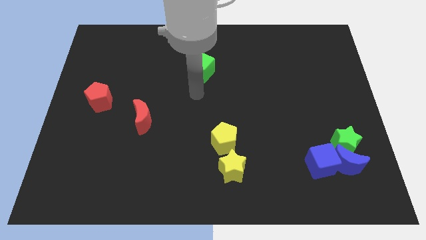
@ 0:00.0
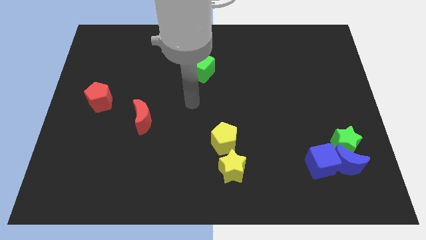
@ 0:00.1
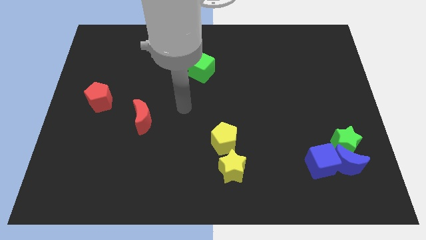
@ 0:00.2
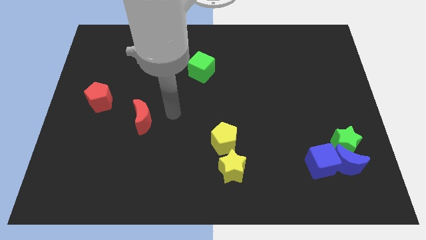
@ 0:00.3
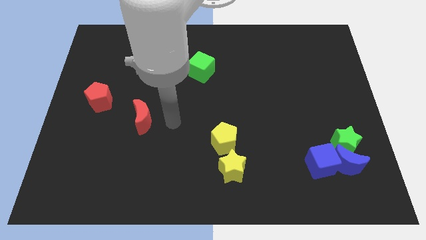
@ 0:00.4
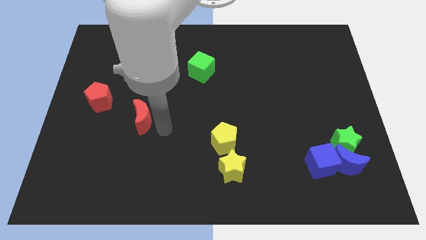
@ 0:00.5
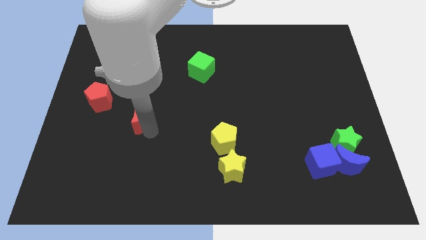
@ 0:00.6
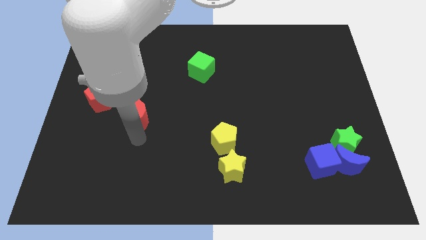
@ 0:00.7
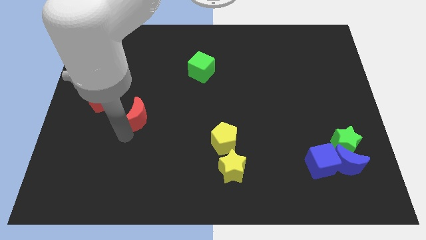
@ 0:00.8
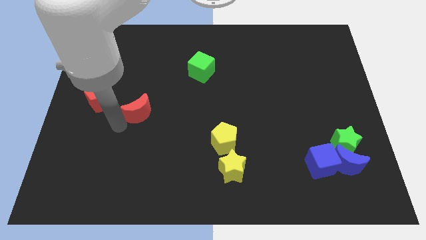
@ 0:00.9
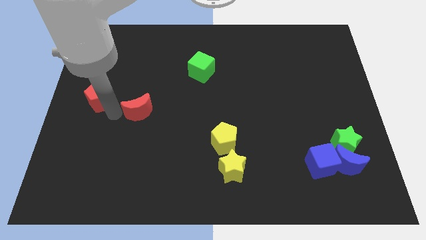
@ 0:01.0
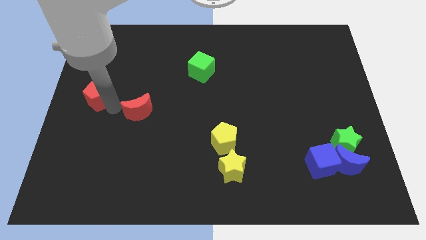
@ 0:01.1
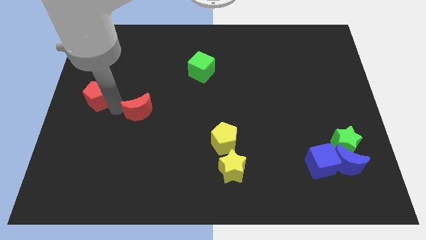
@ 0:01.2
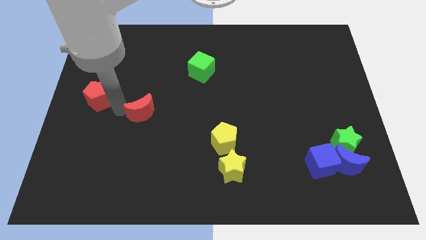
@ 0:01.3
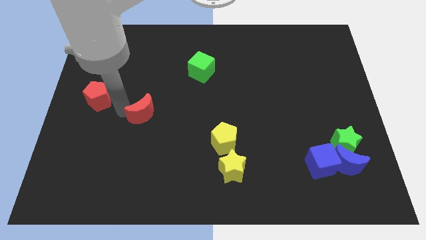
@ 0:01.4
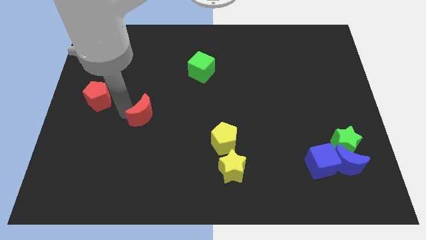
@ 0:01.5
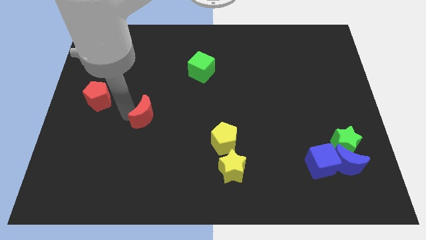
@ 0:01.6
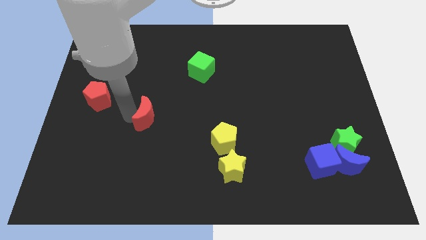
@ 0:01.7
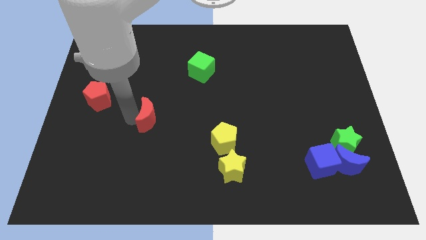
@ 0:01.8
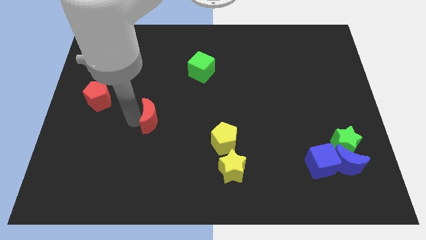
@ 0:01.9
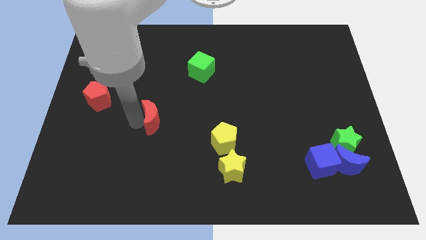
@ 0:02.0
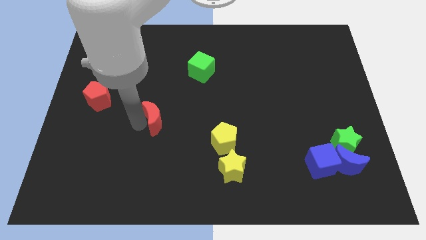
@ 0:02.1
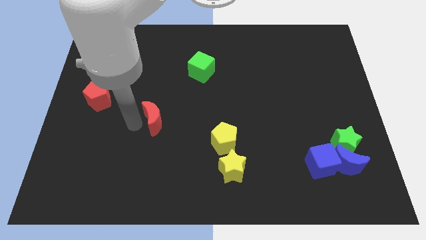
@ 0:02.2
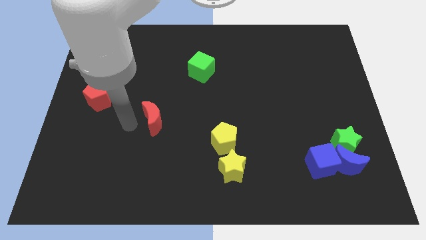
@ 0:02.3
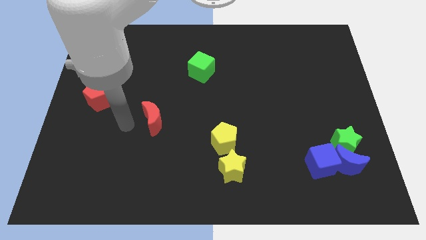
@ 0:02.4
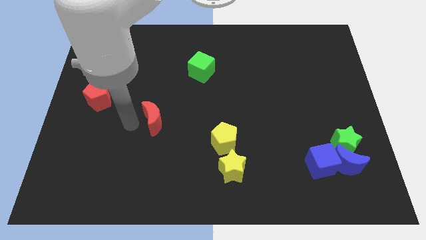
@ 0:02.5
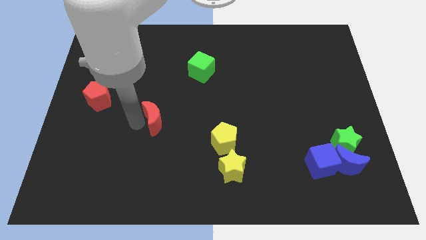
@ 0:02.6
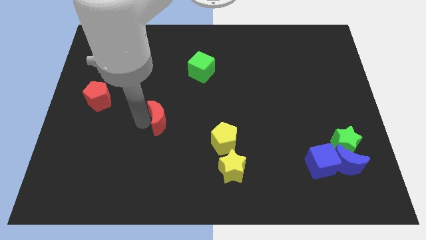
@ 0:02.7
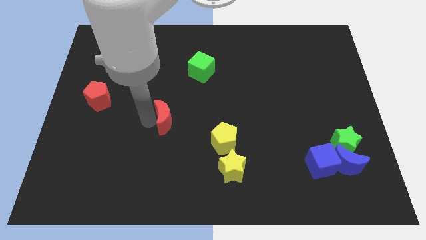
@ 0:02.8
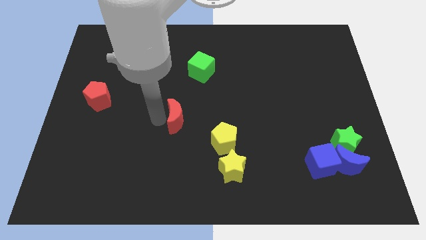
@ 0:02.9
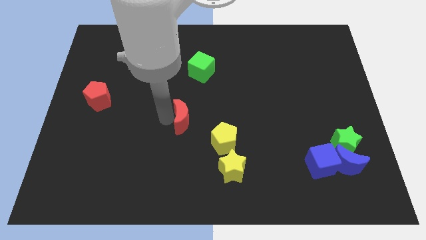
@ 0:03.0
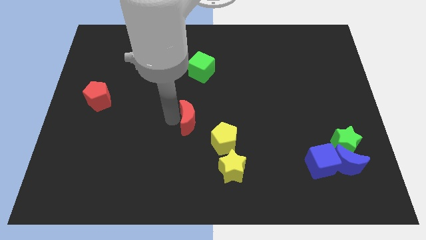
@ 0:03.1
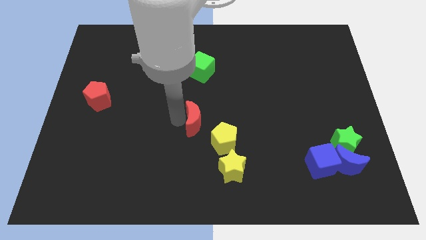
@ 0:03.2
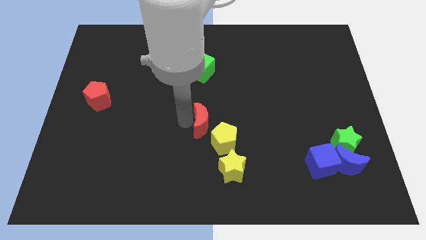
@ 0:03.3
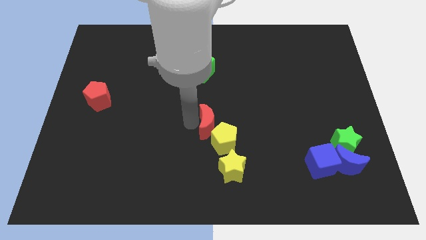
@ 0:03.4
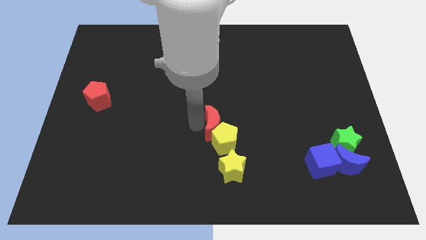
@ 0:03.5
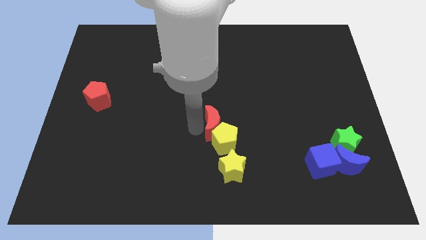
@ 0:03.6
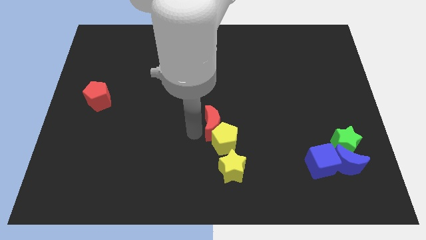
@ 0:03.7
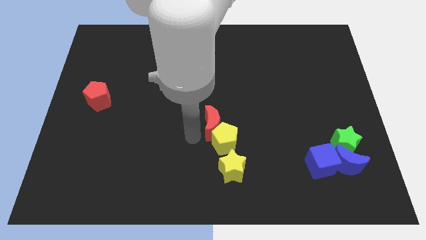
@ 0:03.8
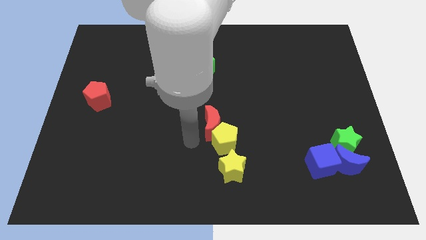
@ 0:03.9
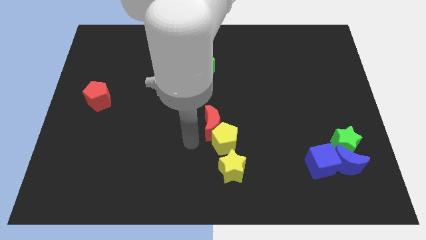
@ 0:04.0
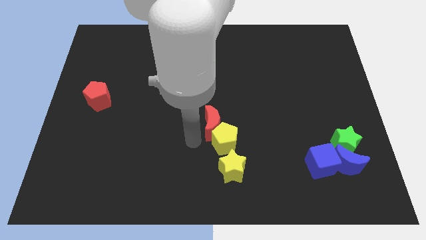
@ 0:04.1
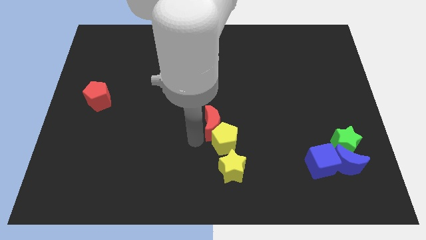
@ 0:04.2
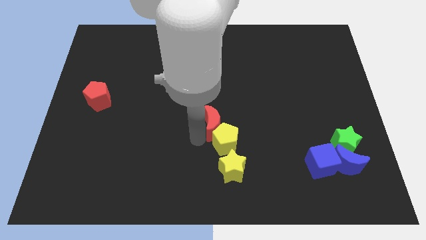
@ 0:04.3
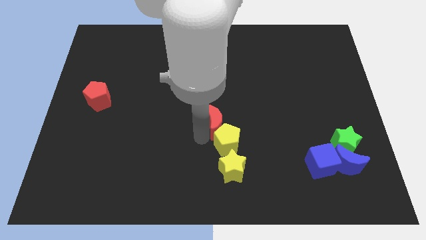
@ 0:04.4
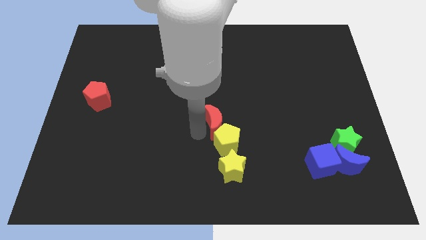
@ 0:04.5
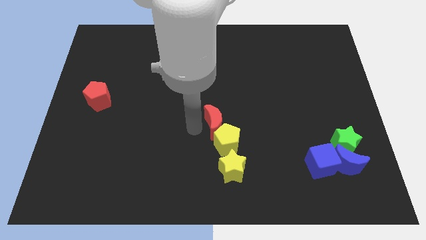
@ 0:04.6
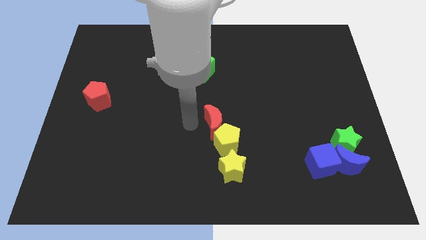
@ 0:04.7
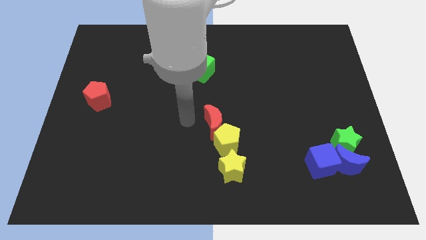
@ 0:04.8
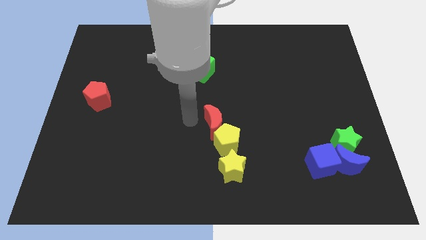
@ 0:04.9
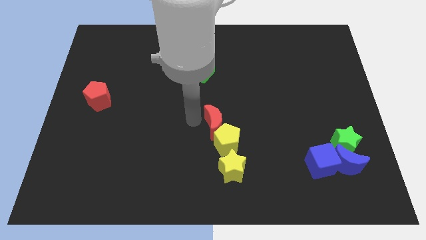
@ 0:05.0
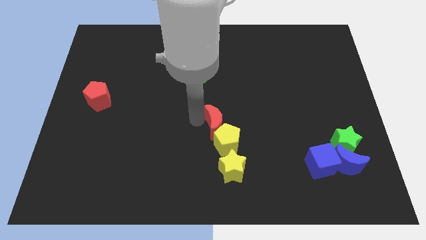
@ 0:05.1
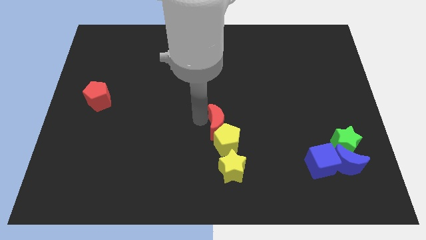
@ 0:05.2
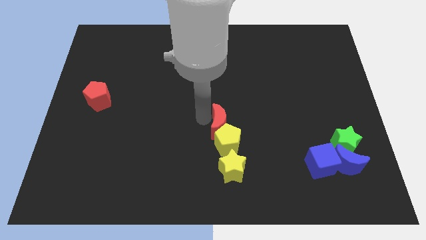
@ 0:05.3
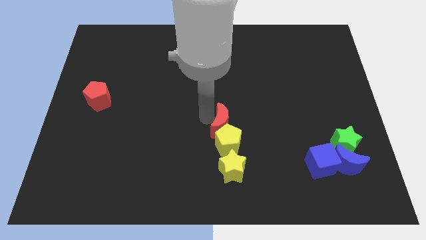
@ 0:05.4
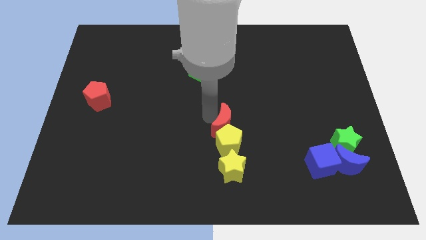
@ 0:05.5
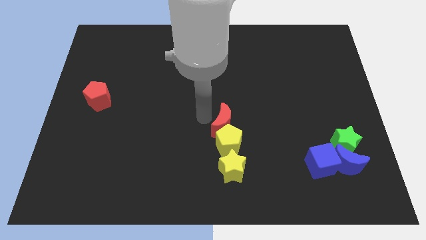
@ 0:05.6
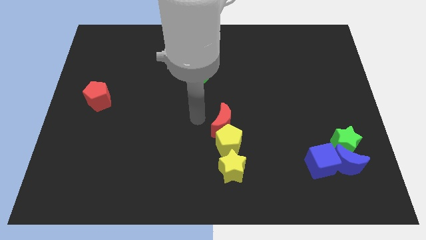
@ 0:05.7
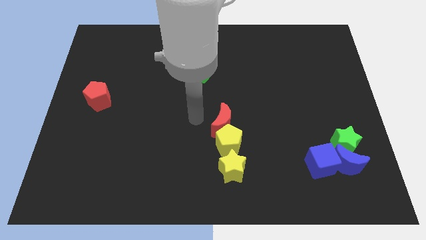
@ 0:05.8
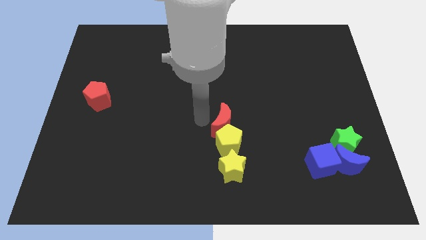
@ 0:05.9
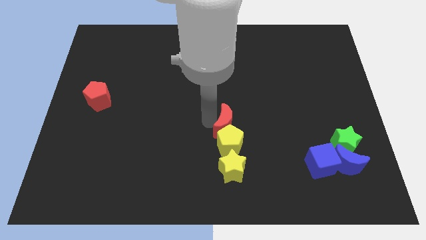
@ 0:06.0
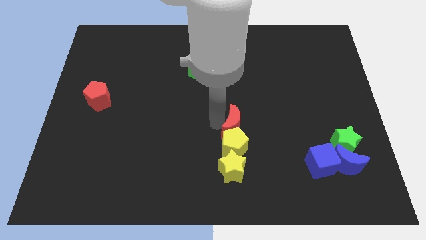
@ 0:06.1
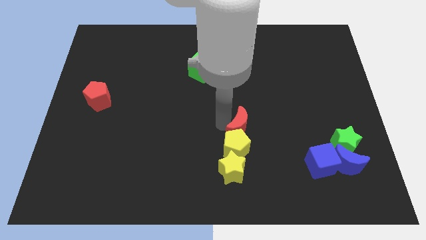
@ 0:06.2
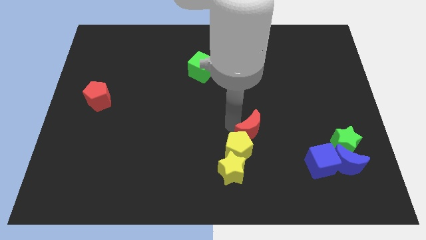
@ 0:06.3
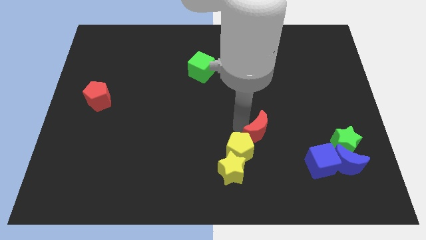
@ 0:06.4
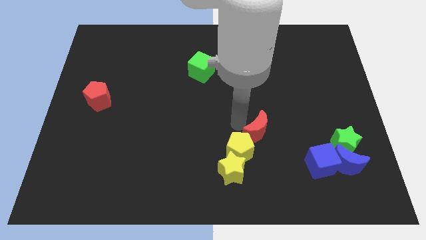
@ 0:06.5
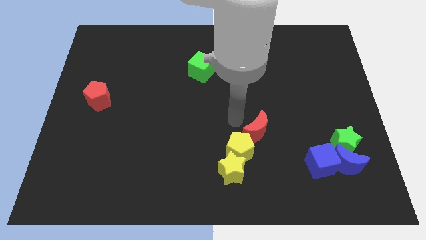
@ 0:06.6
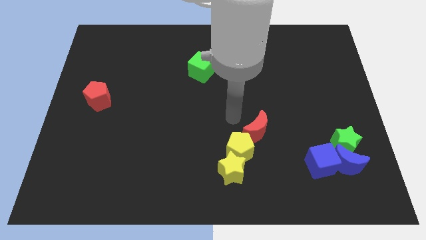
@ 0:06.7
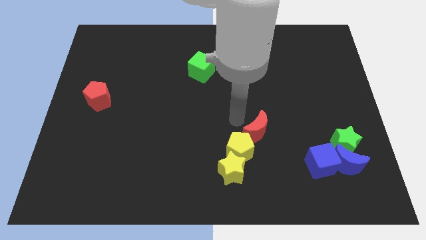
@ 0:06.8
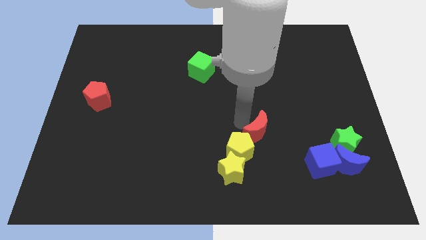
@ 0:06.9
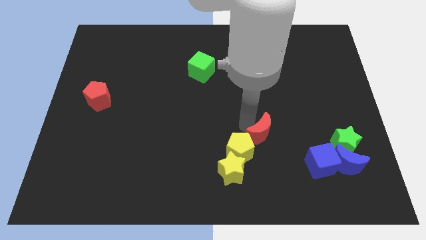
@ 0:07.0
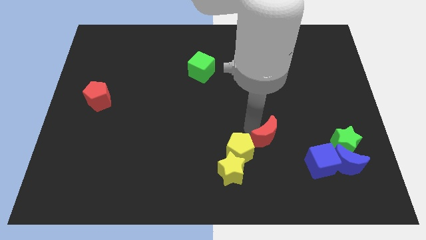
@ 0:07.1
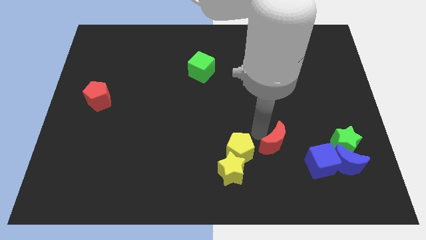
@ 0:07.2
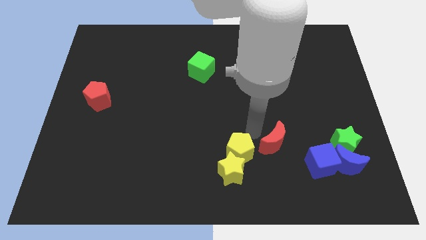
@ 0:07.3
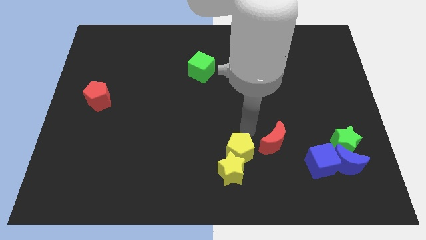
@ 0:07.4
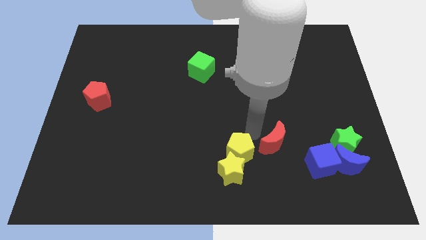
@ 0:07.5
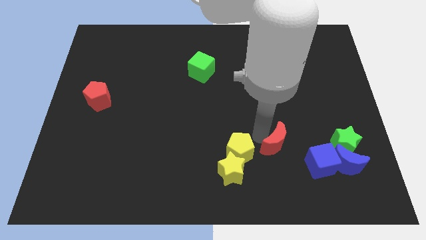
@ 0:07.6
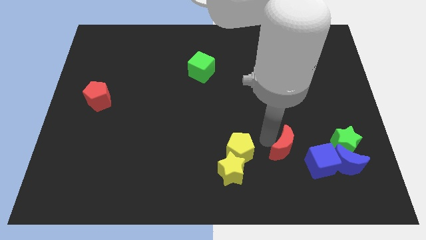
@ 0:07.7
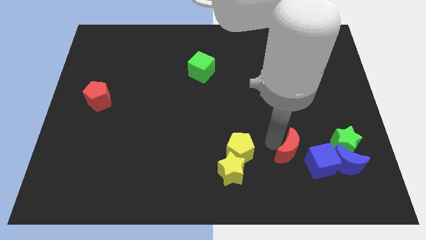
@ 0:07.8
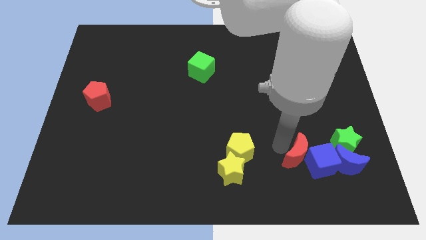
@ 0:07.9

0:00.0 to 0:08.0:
move the red moon to the blue cube
